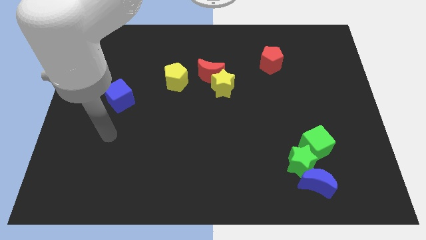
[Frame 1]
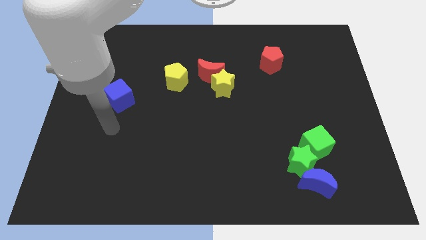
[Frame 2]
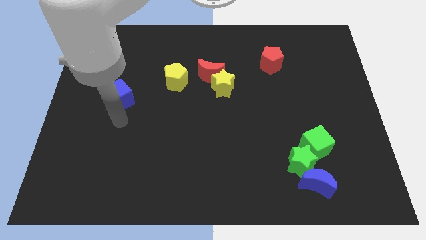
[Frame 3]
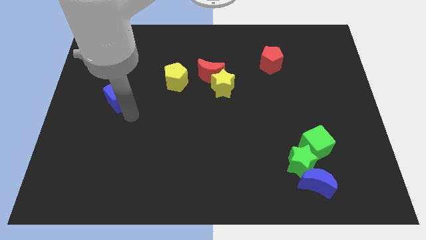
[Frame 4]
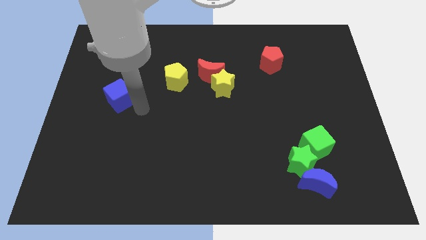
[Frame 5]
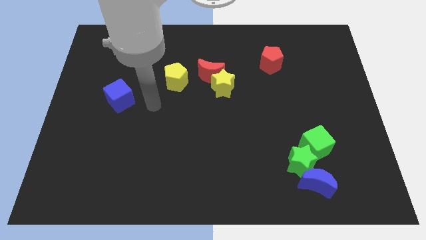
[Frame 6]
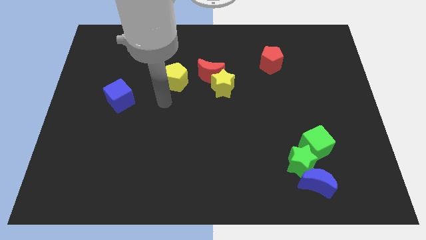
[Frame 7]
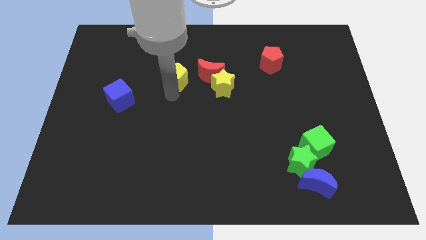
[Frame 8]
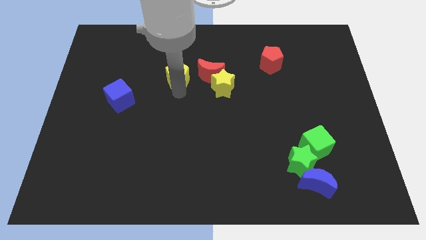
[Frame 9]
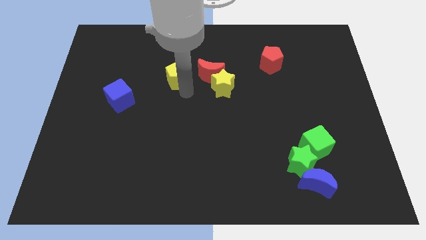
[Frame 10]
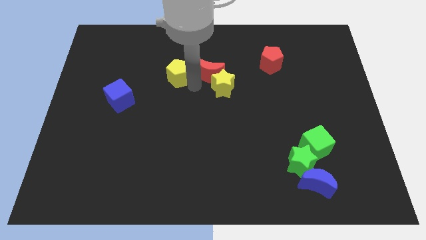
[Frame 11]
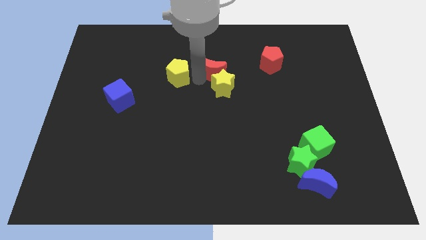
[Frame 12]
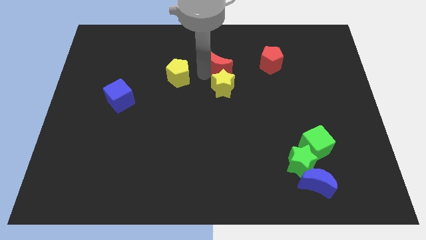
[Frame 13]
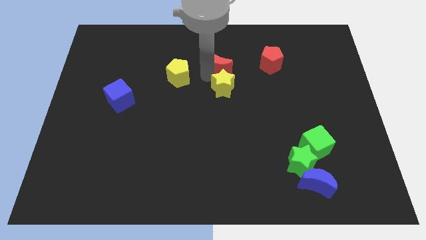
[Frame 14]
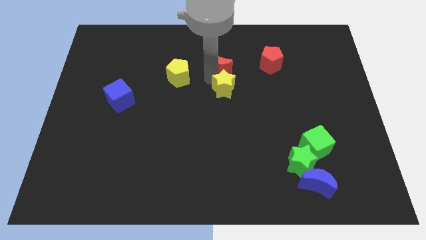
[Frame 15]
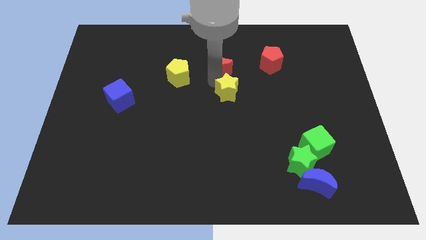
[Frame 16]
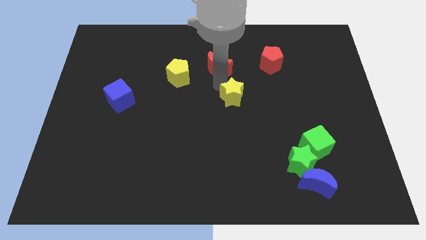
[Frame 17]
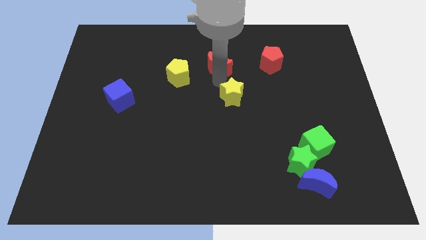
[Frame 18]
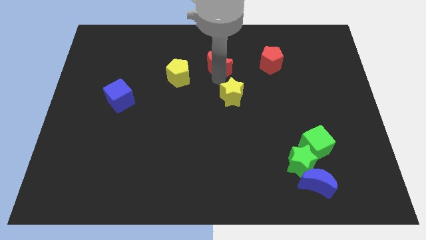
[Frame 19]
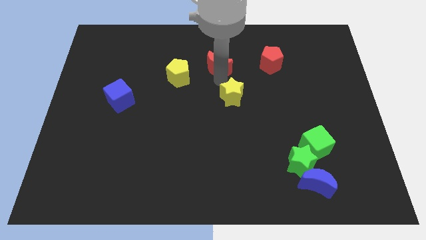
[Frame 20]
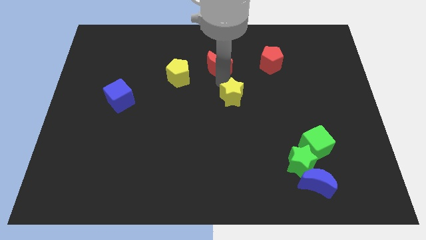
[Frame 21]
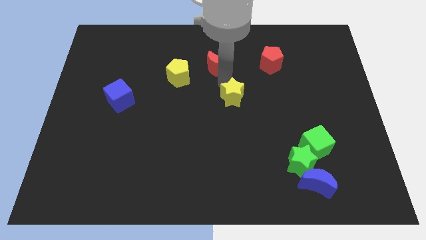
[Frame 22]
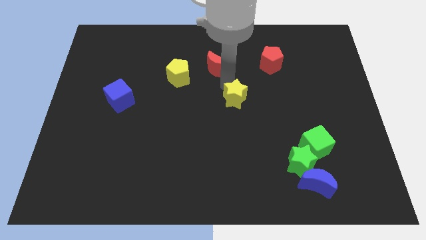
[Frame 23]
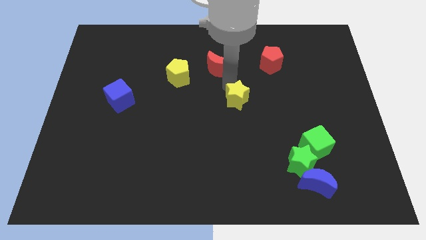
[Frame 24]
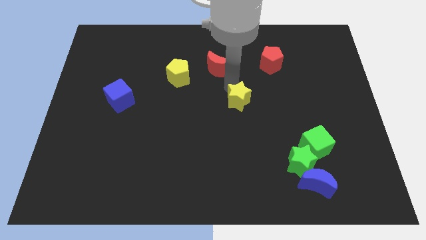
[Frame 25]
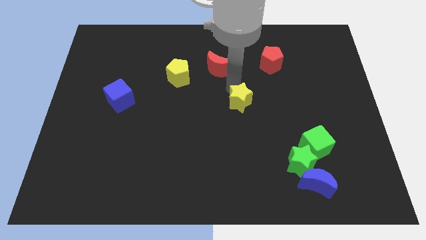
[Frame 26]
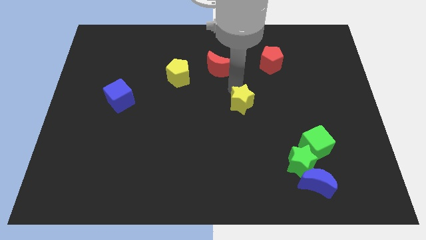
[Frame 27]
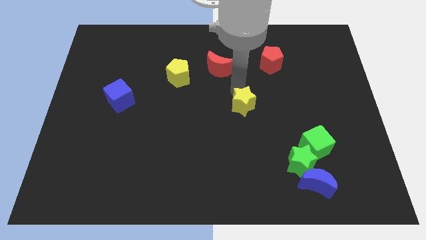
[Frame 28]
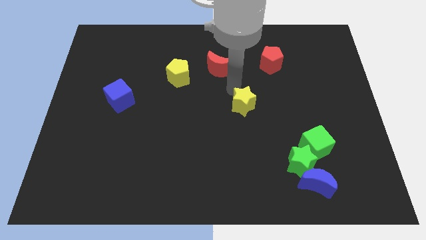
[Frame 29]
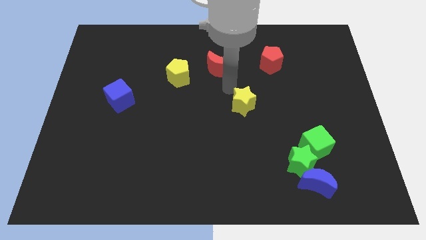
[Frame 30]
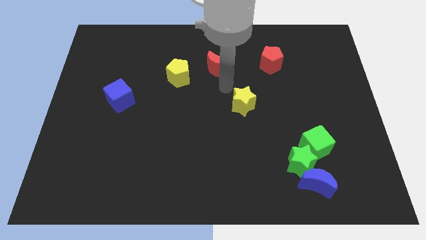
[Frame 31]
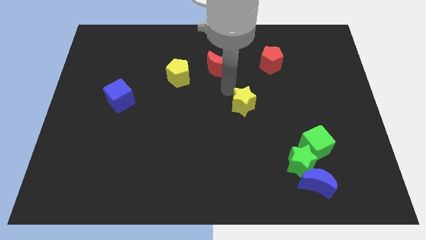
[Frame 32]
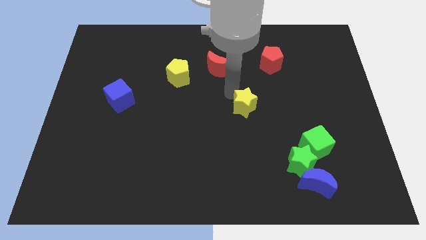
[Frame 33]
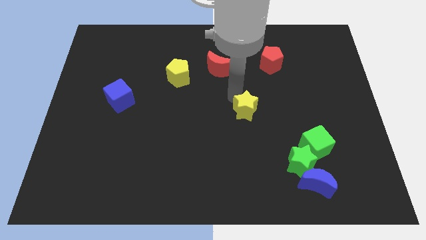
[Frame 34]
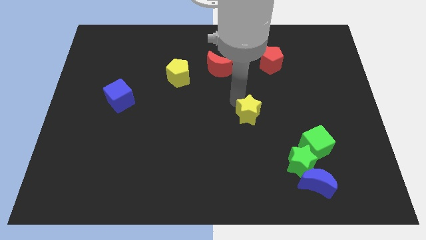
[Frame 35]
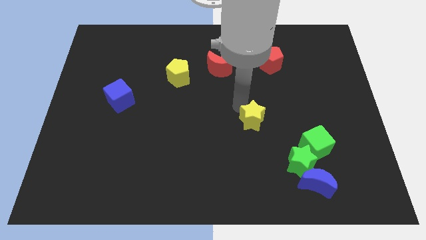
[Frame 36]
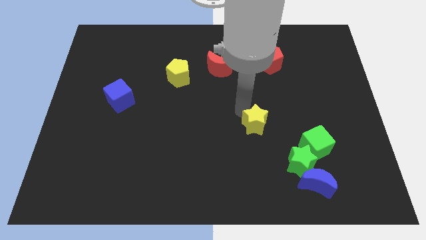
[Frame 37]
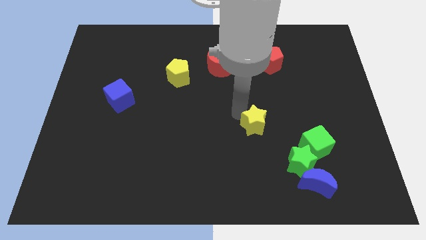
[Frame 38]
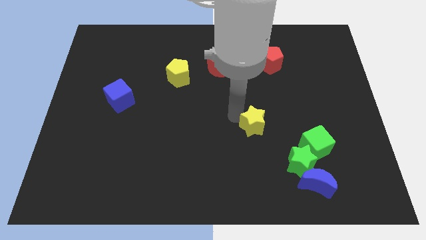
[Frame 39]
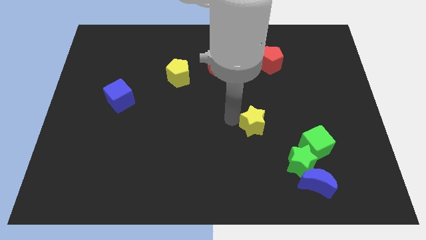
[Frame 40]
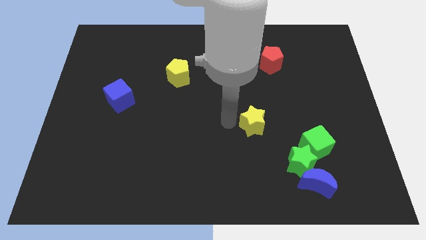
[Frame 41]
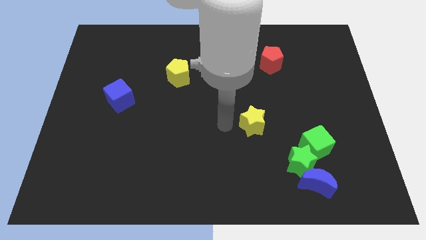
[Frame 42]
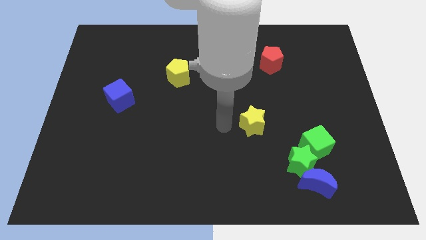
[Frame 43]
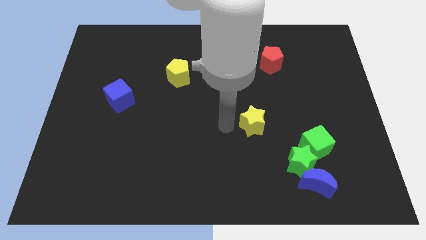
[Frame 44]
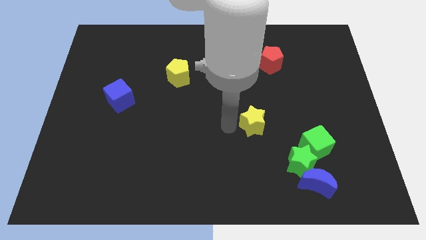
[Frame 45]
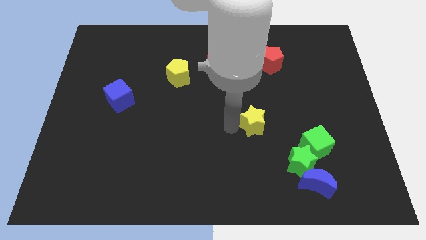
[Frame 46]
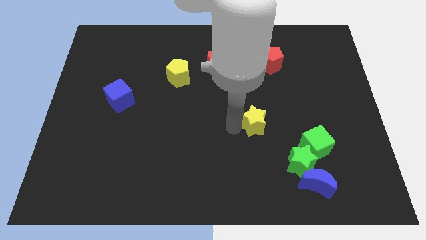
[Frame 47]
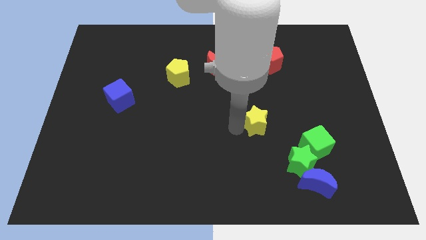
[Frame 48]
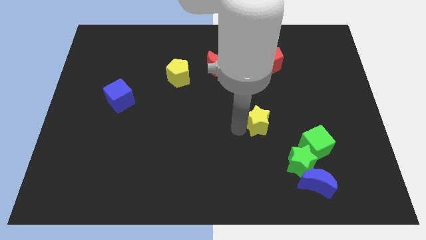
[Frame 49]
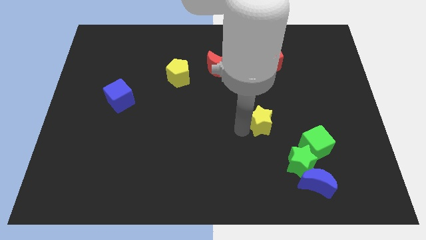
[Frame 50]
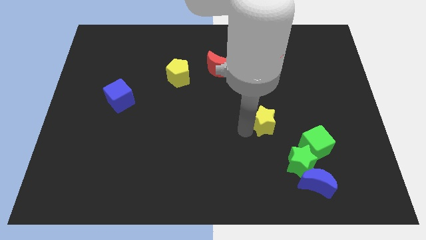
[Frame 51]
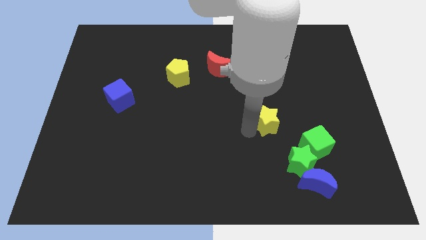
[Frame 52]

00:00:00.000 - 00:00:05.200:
put the yellow star to the top left of the green cube

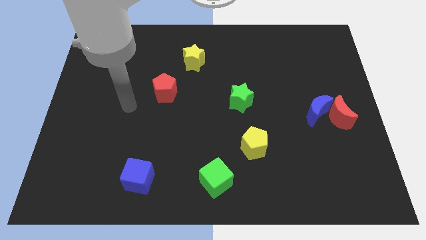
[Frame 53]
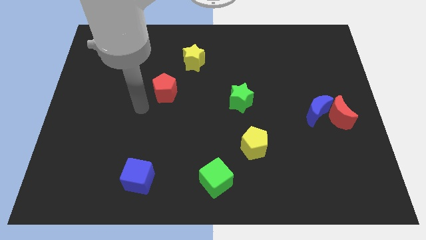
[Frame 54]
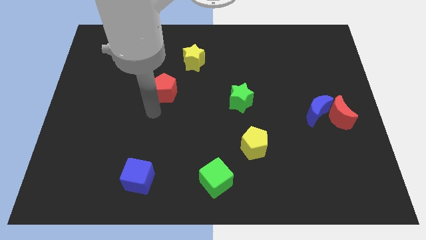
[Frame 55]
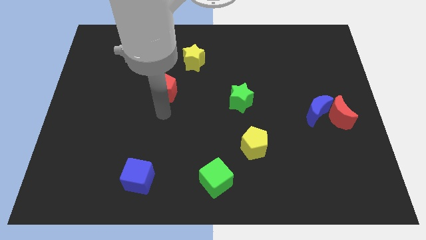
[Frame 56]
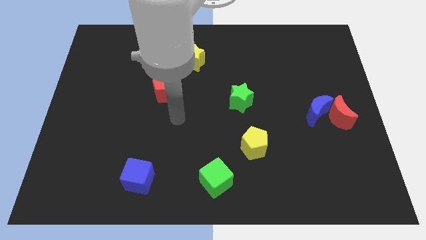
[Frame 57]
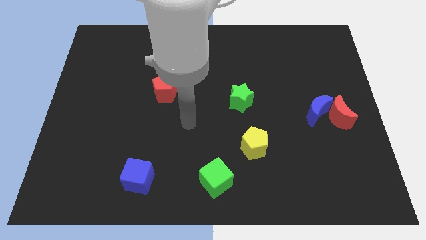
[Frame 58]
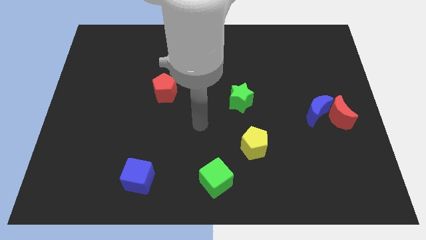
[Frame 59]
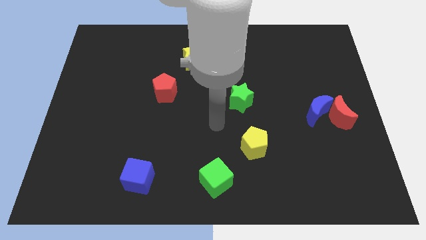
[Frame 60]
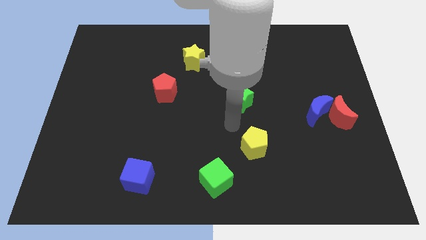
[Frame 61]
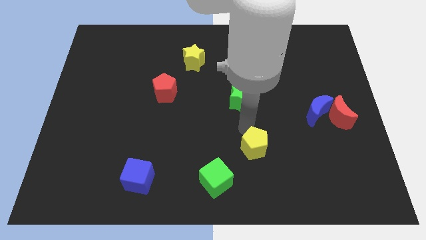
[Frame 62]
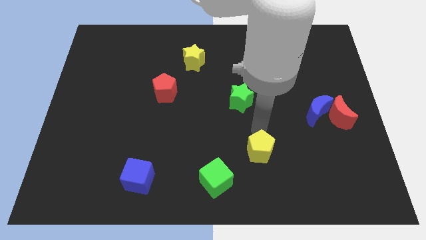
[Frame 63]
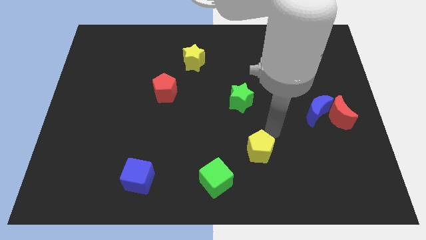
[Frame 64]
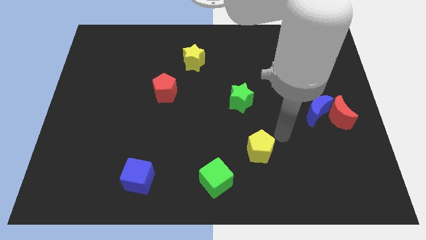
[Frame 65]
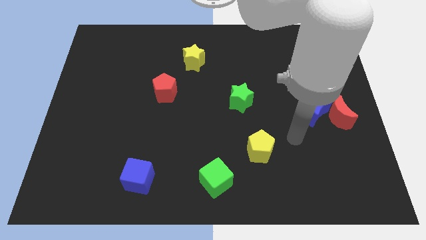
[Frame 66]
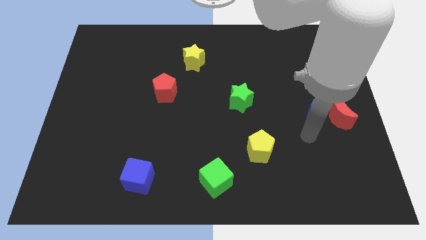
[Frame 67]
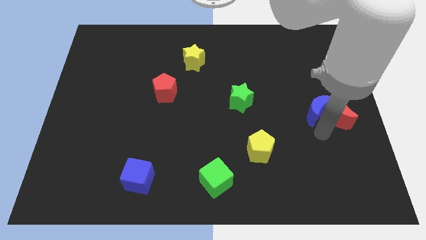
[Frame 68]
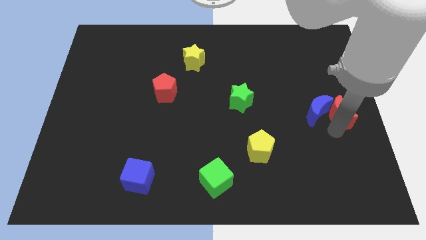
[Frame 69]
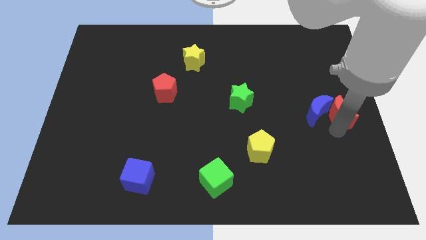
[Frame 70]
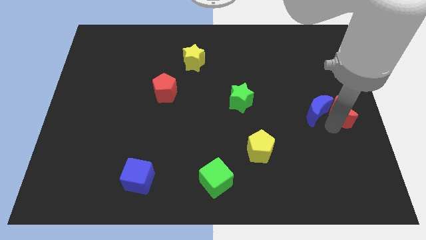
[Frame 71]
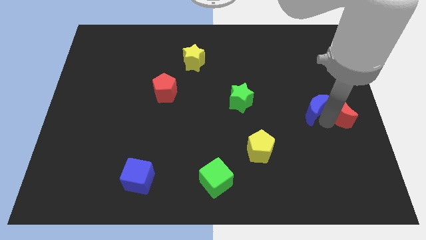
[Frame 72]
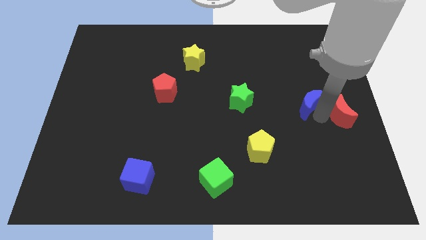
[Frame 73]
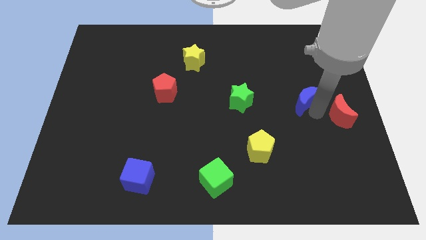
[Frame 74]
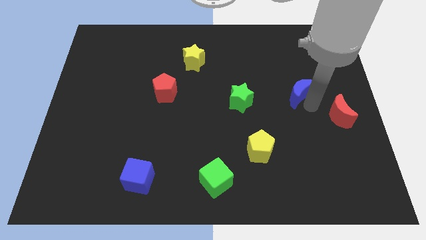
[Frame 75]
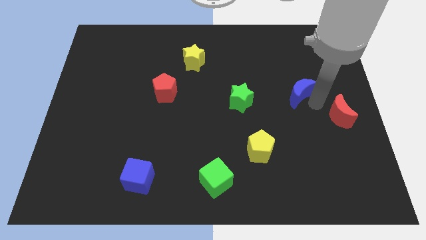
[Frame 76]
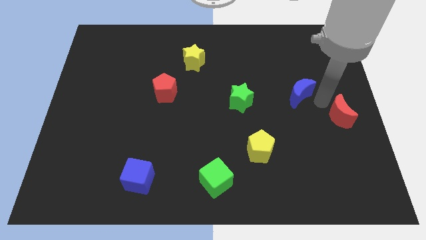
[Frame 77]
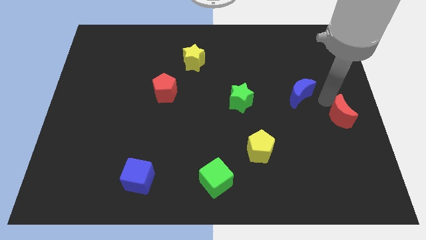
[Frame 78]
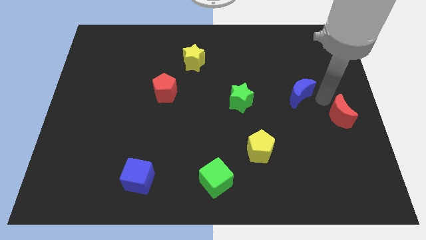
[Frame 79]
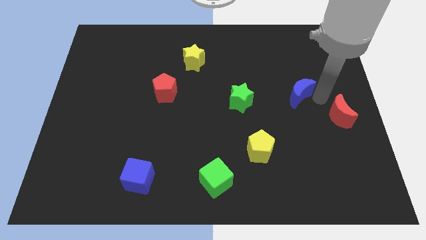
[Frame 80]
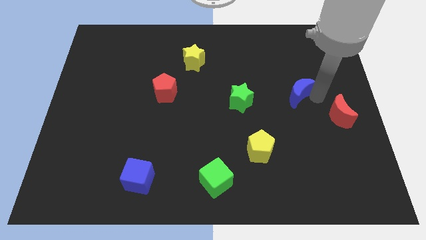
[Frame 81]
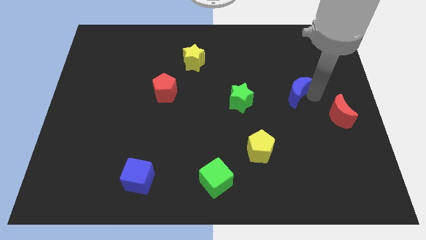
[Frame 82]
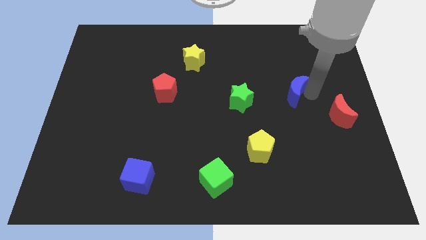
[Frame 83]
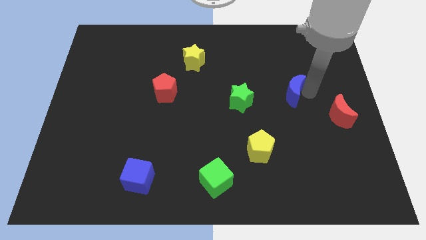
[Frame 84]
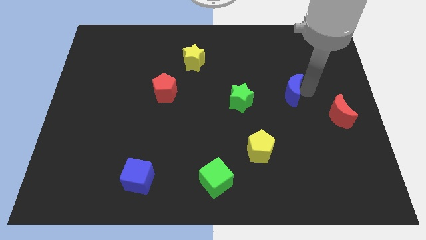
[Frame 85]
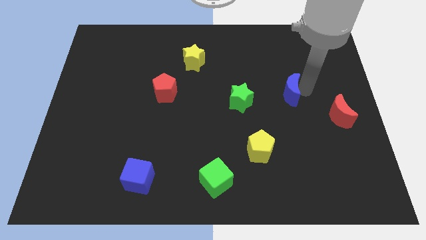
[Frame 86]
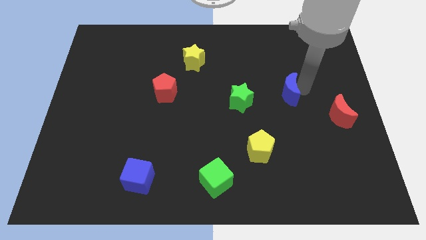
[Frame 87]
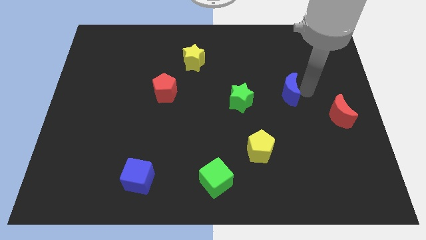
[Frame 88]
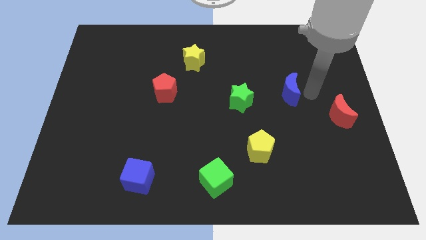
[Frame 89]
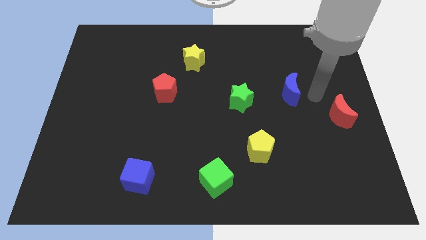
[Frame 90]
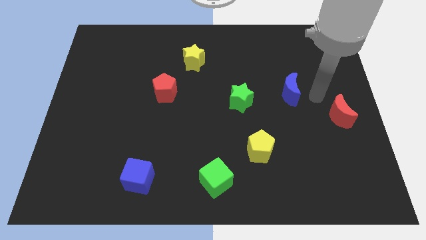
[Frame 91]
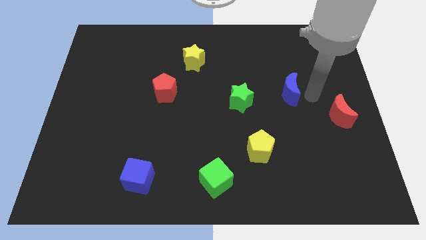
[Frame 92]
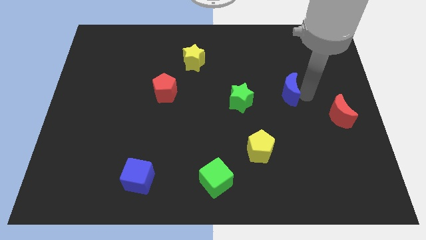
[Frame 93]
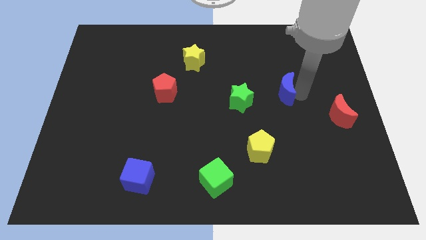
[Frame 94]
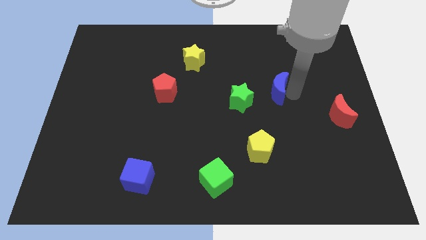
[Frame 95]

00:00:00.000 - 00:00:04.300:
put the blue moon to the top right side of the green star
